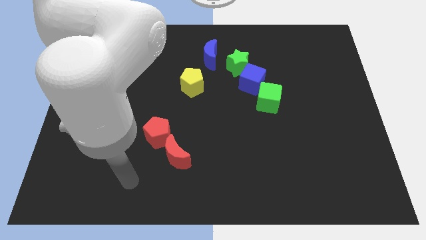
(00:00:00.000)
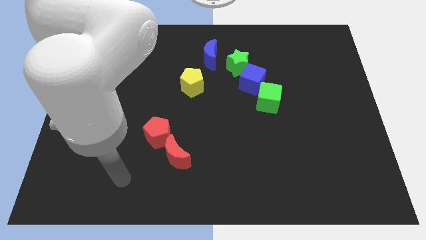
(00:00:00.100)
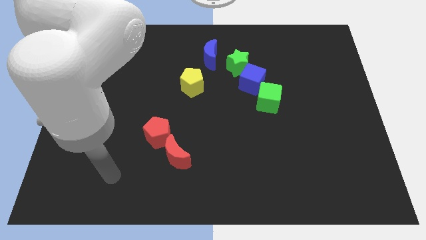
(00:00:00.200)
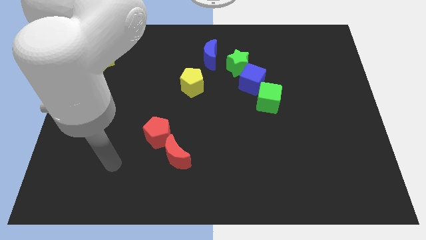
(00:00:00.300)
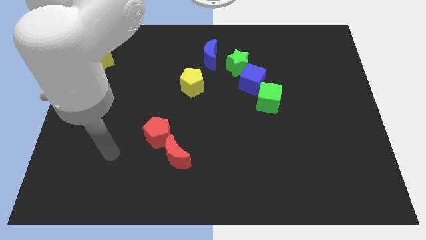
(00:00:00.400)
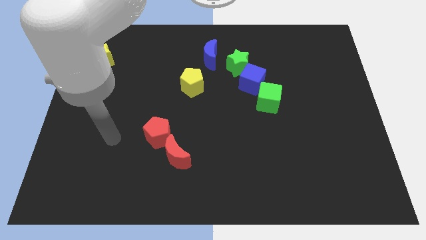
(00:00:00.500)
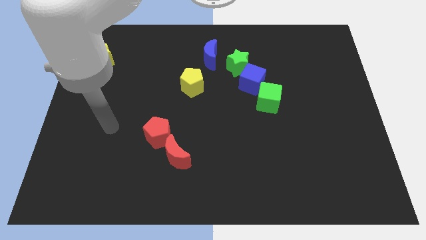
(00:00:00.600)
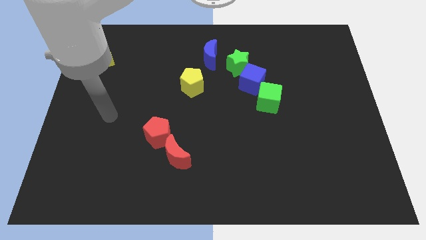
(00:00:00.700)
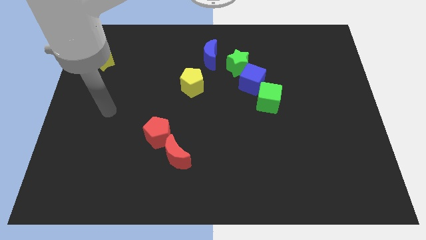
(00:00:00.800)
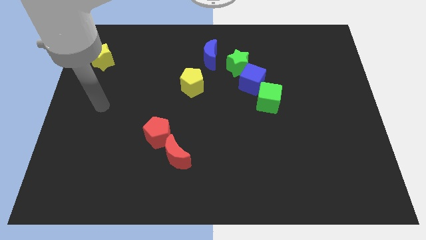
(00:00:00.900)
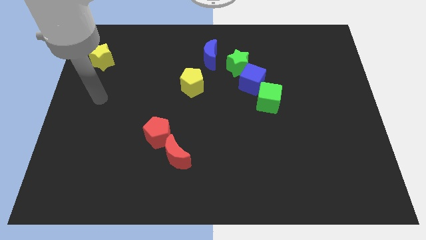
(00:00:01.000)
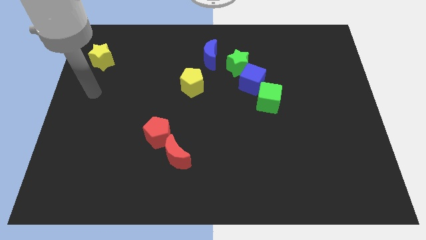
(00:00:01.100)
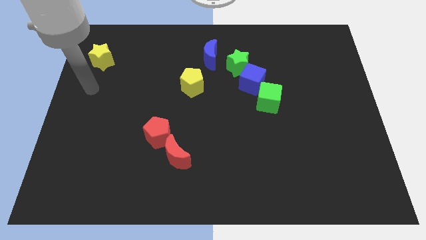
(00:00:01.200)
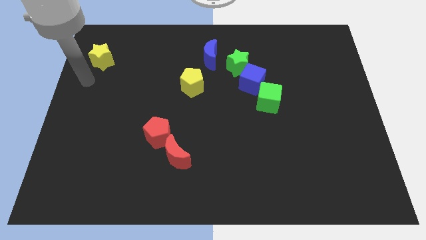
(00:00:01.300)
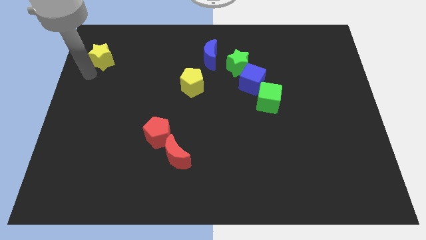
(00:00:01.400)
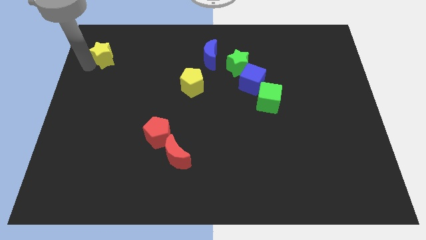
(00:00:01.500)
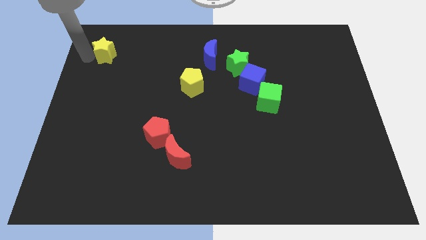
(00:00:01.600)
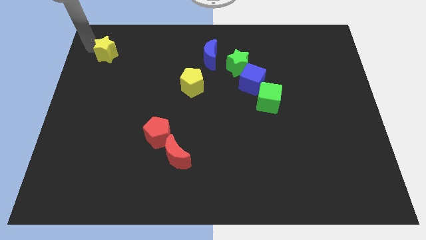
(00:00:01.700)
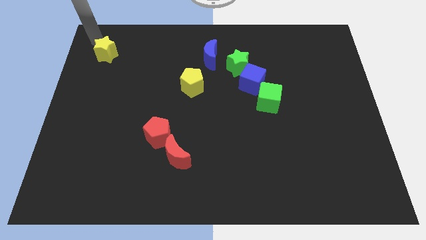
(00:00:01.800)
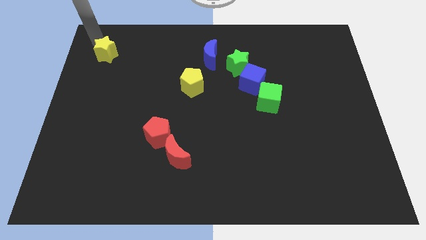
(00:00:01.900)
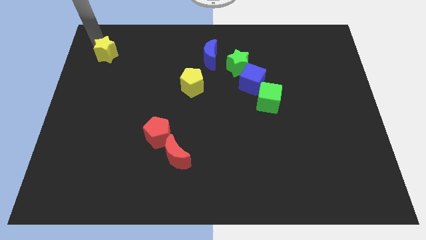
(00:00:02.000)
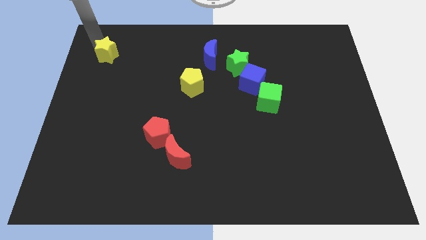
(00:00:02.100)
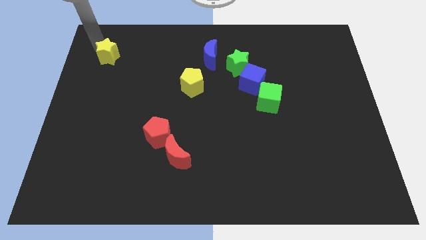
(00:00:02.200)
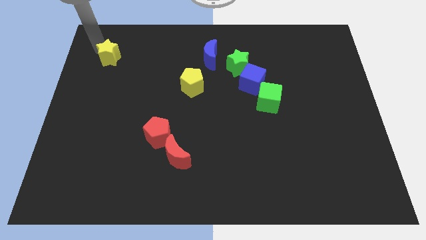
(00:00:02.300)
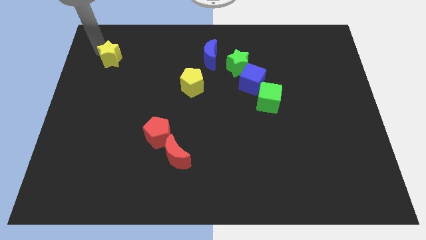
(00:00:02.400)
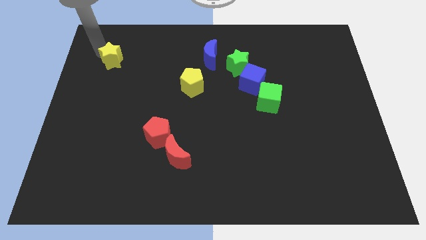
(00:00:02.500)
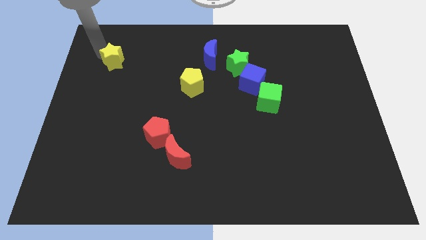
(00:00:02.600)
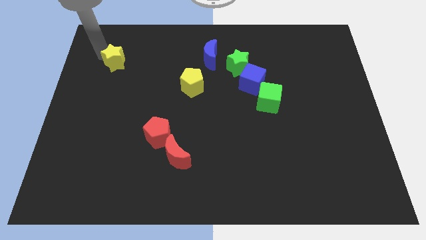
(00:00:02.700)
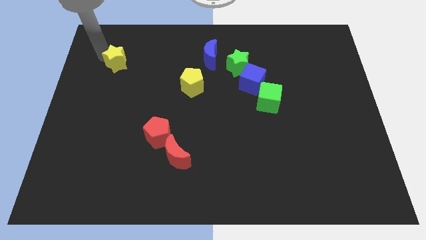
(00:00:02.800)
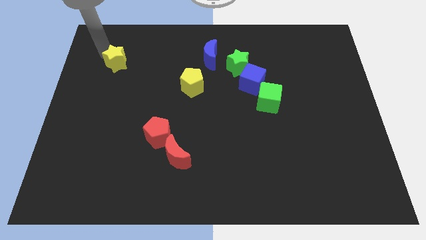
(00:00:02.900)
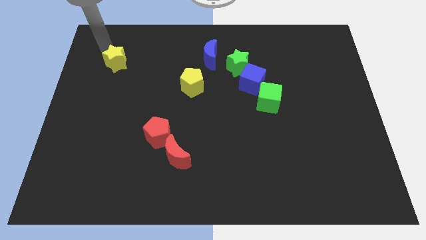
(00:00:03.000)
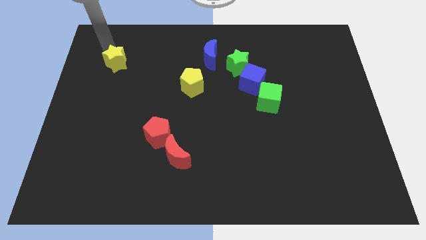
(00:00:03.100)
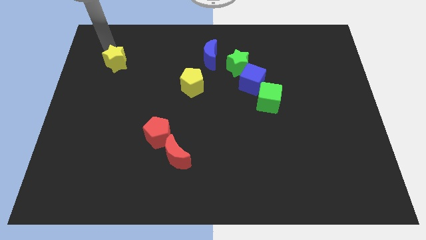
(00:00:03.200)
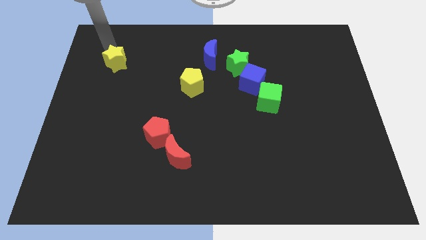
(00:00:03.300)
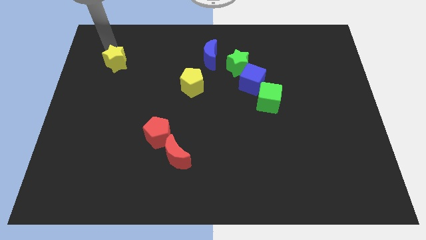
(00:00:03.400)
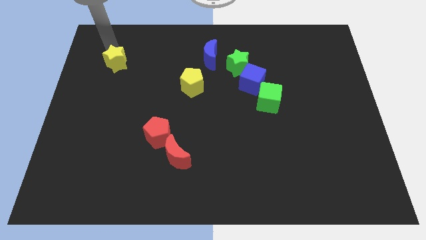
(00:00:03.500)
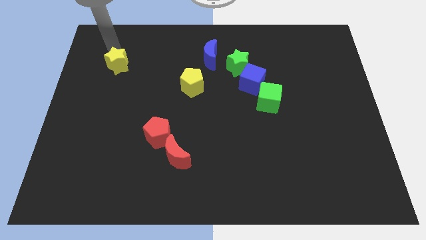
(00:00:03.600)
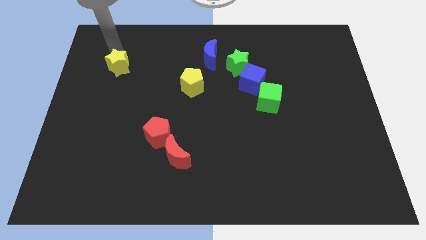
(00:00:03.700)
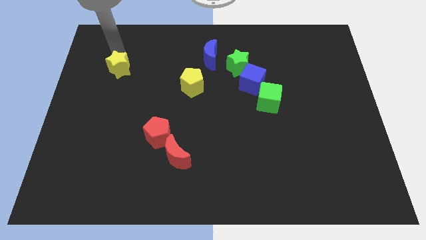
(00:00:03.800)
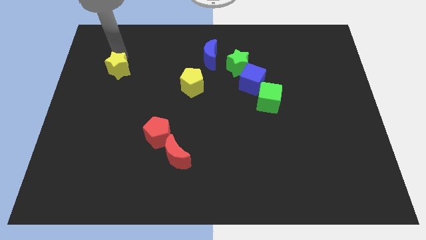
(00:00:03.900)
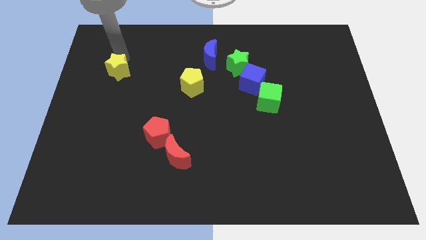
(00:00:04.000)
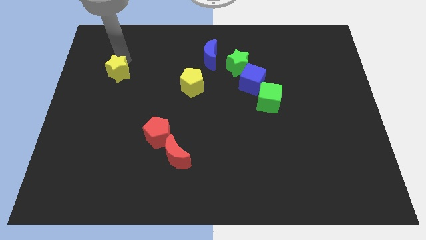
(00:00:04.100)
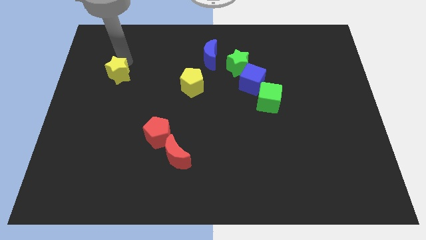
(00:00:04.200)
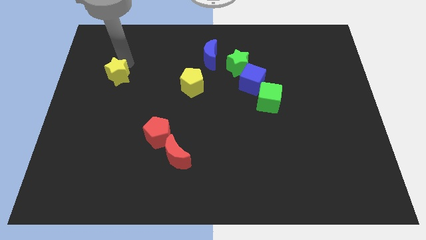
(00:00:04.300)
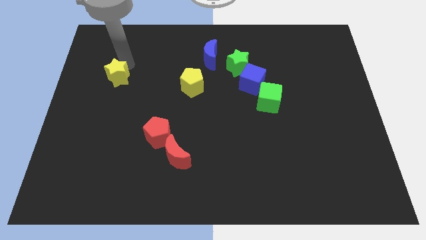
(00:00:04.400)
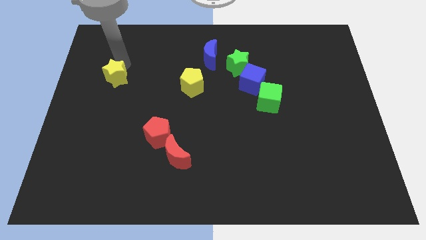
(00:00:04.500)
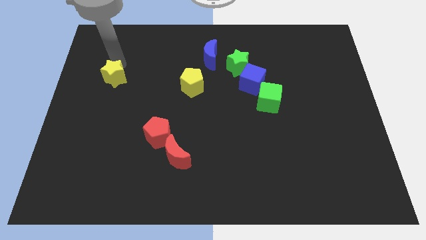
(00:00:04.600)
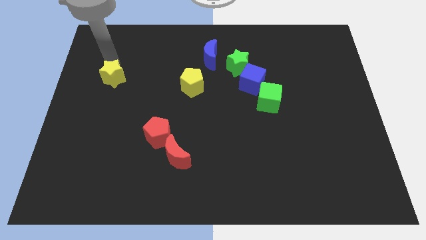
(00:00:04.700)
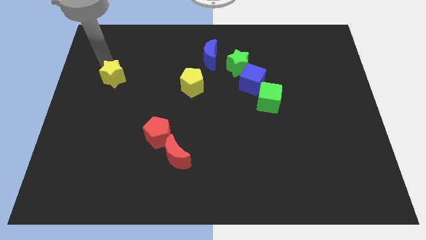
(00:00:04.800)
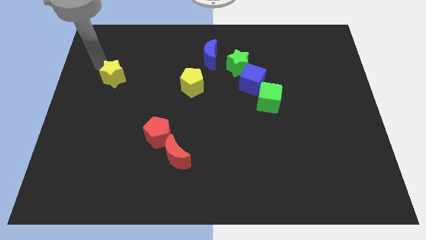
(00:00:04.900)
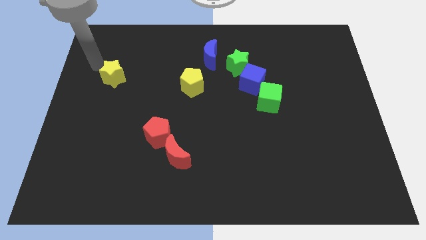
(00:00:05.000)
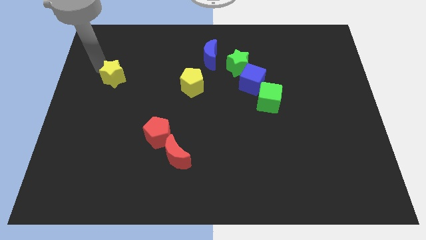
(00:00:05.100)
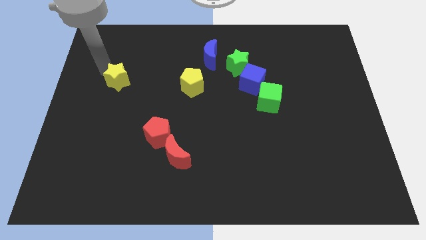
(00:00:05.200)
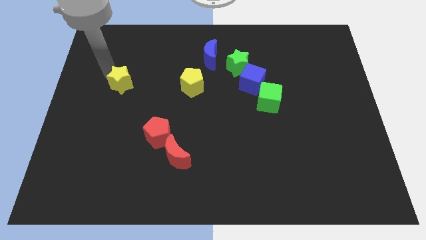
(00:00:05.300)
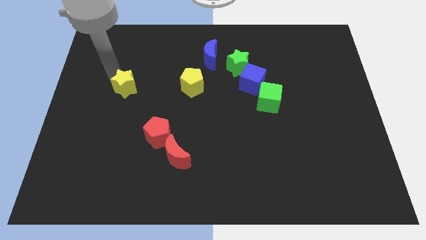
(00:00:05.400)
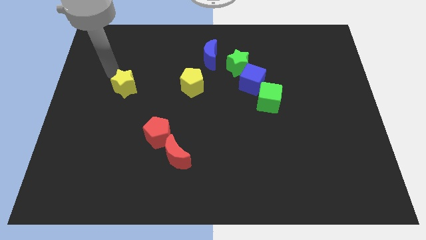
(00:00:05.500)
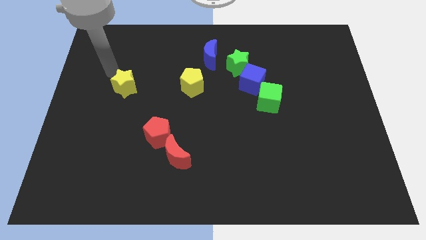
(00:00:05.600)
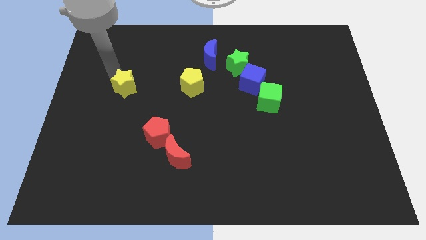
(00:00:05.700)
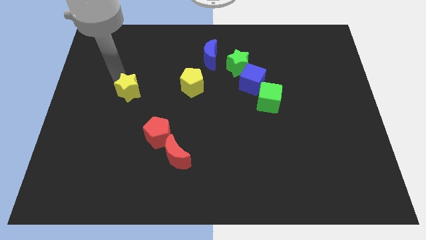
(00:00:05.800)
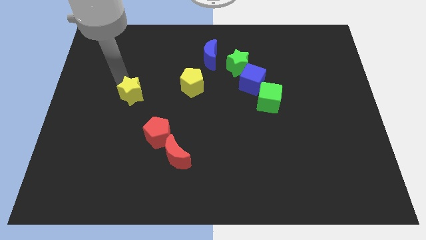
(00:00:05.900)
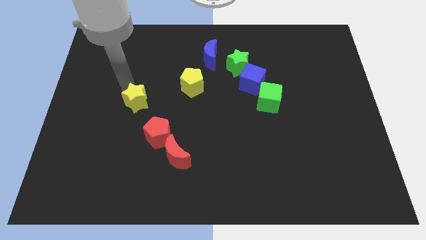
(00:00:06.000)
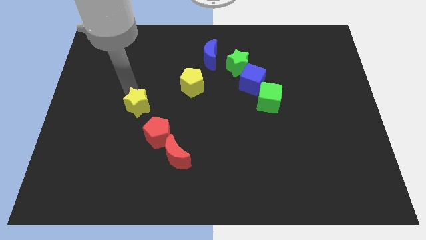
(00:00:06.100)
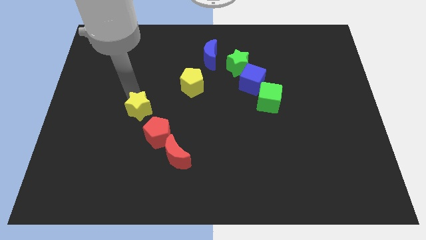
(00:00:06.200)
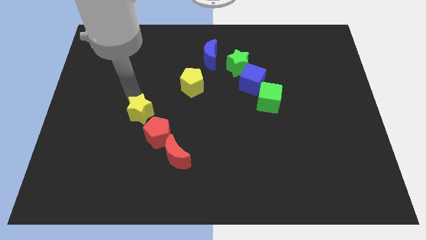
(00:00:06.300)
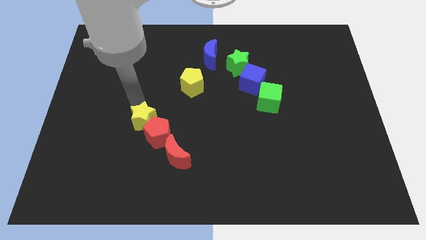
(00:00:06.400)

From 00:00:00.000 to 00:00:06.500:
push the yellow star towards the red pentagon

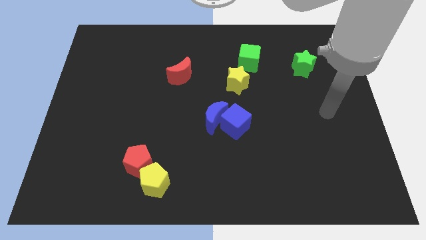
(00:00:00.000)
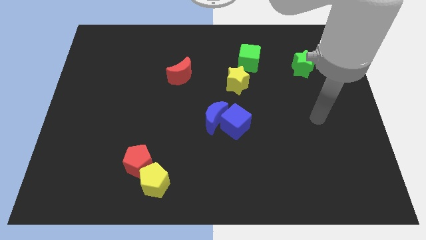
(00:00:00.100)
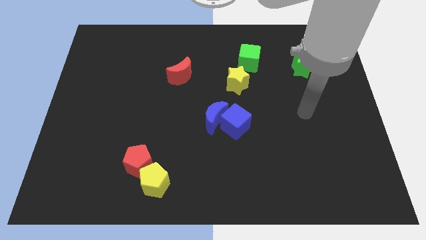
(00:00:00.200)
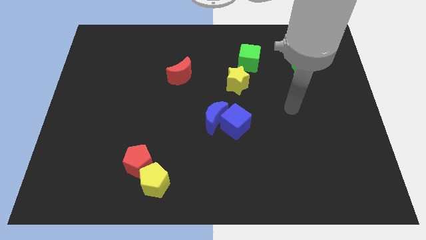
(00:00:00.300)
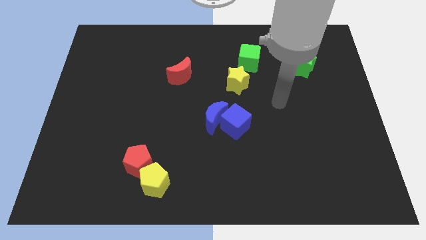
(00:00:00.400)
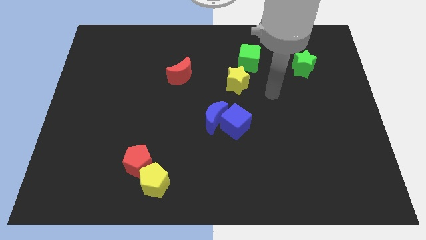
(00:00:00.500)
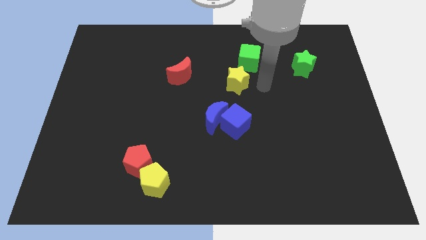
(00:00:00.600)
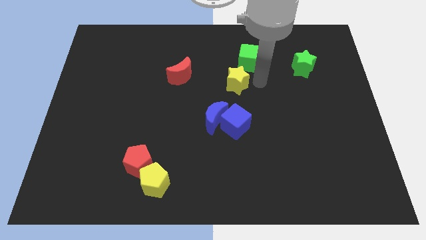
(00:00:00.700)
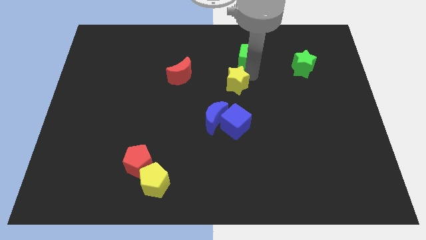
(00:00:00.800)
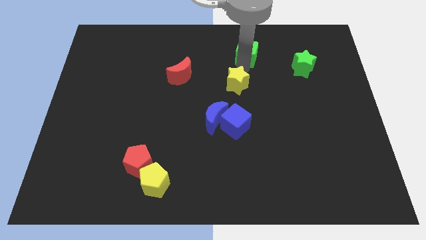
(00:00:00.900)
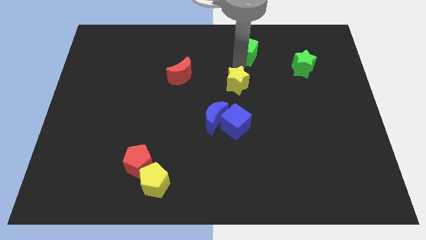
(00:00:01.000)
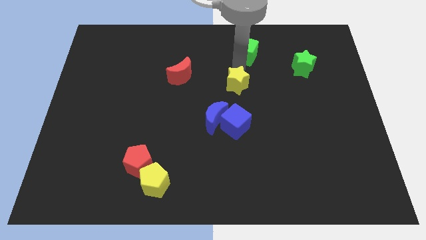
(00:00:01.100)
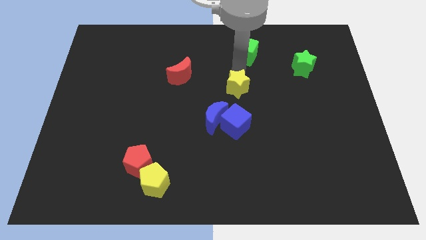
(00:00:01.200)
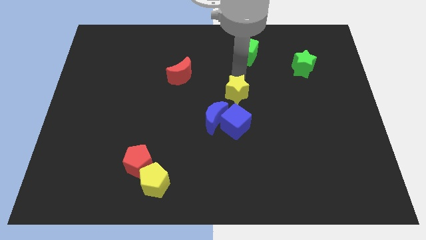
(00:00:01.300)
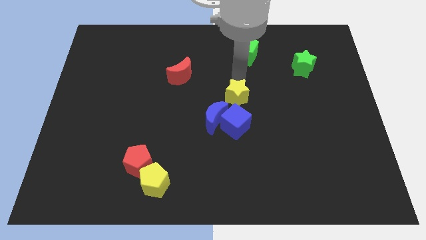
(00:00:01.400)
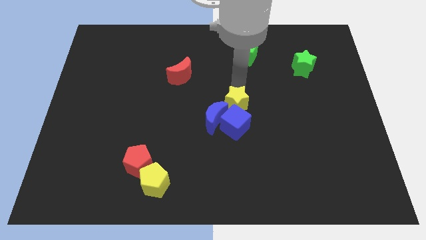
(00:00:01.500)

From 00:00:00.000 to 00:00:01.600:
push the yellow star close to the blue cube
